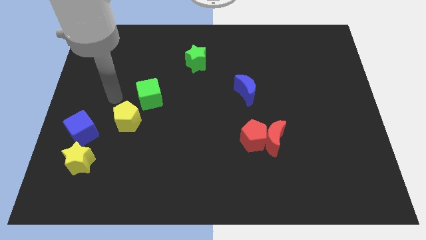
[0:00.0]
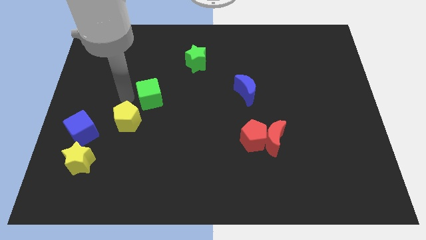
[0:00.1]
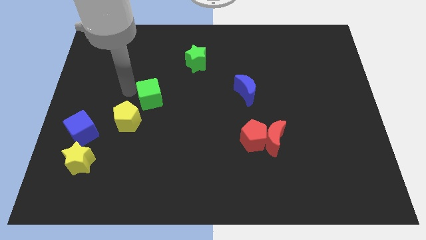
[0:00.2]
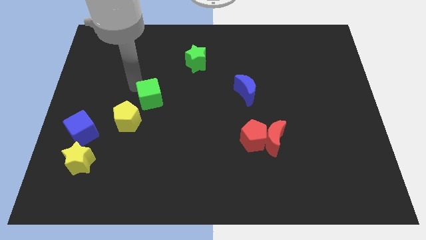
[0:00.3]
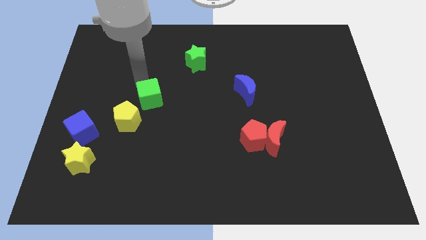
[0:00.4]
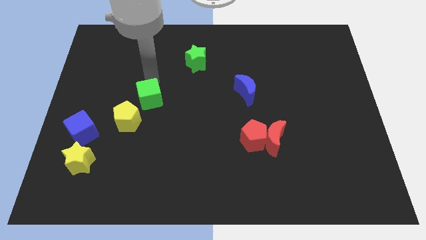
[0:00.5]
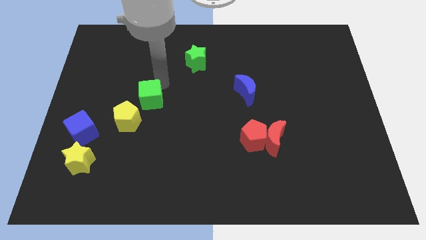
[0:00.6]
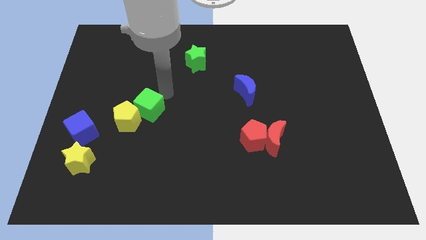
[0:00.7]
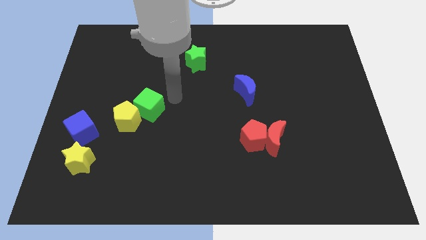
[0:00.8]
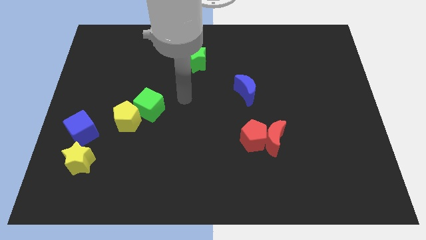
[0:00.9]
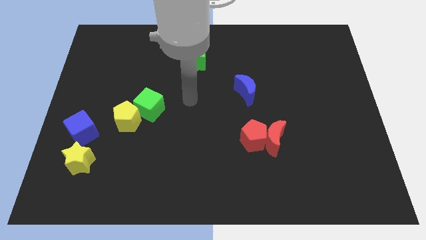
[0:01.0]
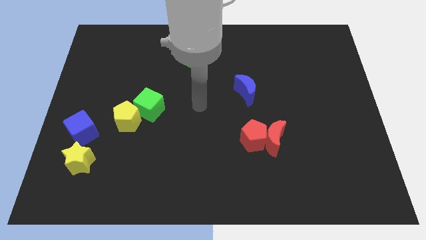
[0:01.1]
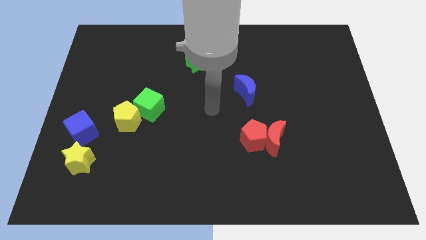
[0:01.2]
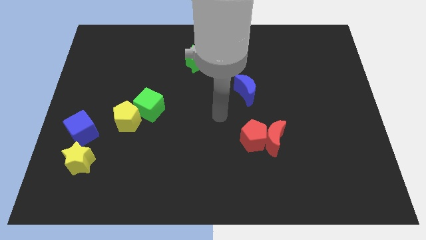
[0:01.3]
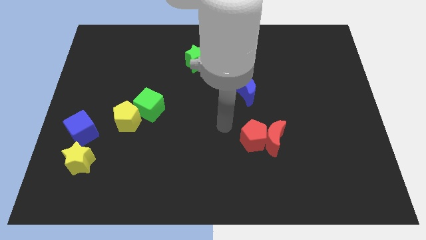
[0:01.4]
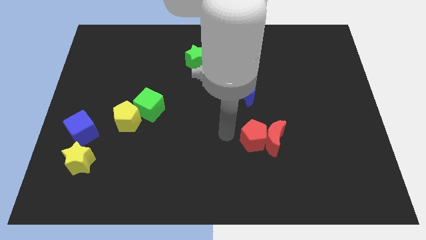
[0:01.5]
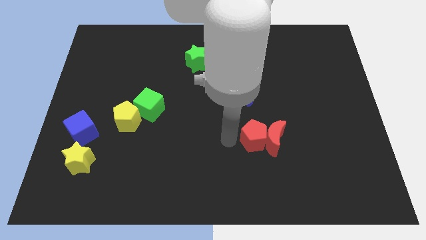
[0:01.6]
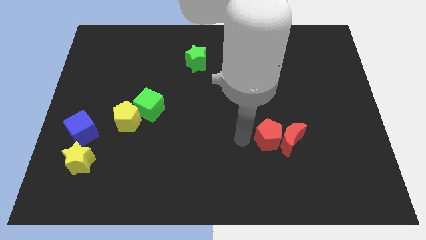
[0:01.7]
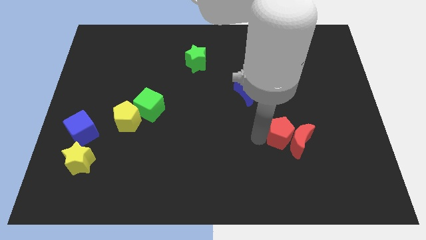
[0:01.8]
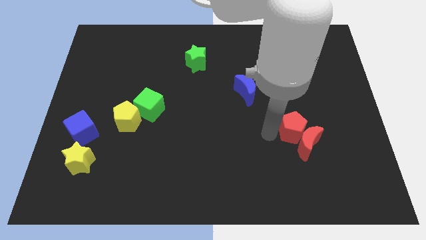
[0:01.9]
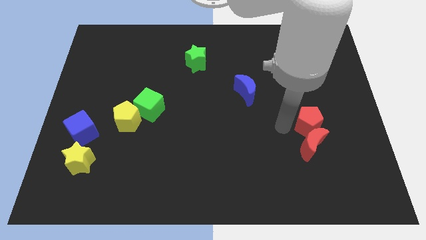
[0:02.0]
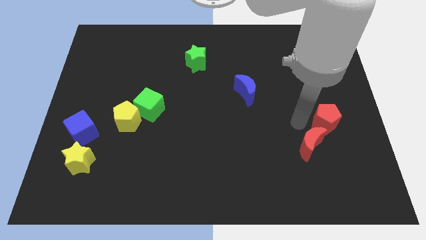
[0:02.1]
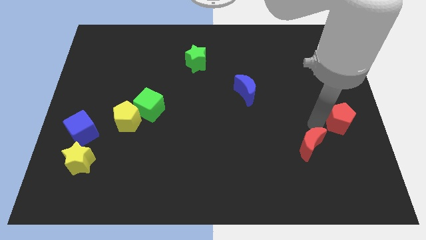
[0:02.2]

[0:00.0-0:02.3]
pull the red moon apart from the red pentagon

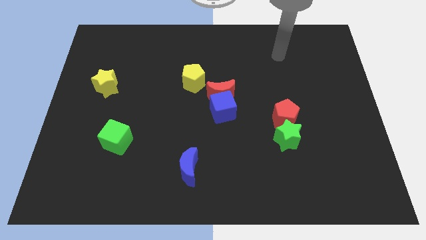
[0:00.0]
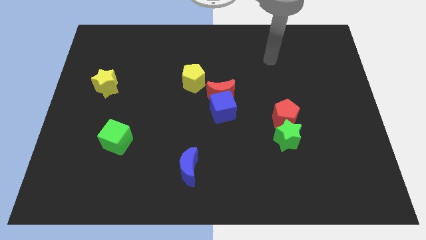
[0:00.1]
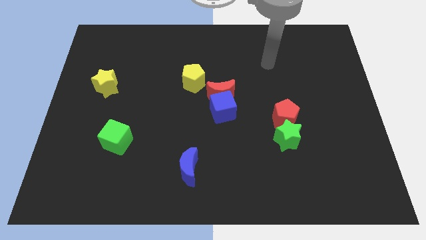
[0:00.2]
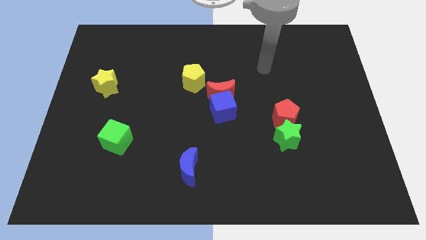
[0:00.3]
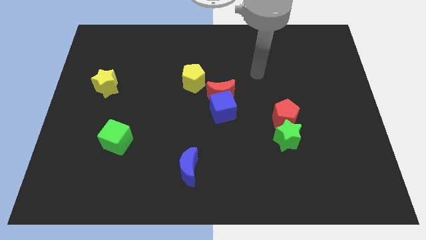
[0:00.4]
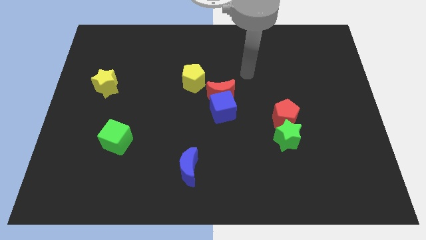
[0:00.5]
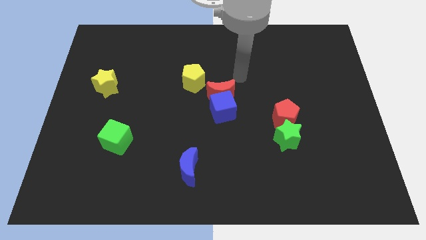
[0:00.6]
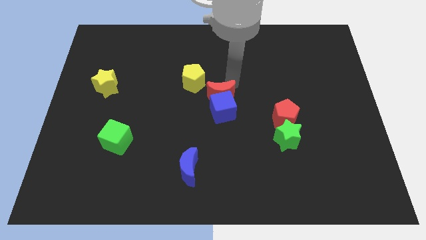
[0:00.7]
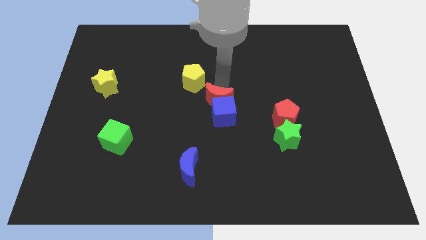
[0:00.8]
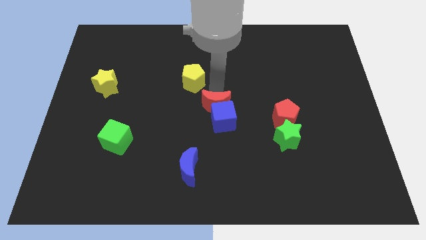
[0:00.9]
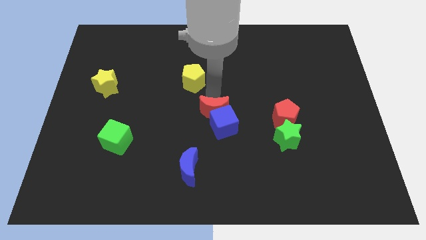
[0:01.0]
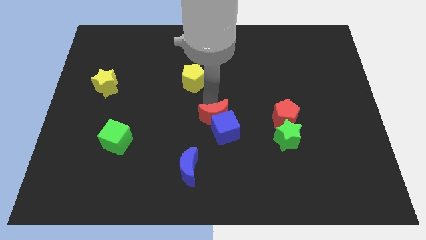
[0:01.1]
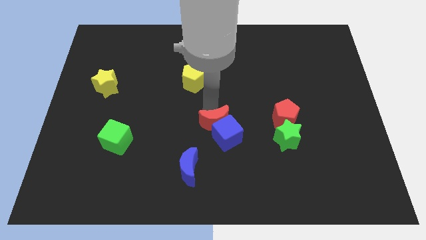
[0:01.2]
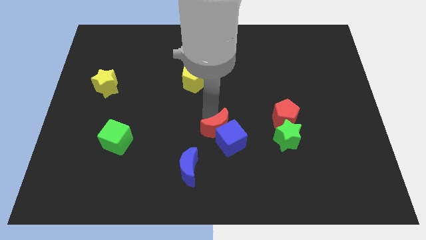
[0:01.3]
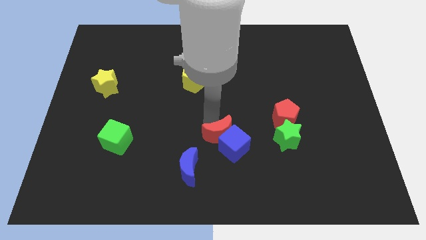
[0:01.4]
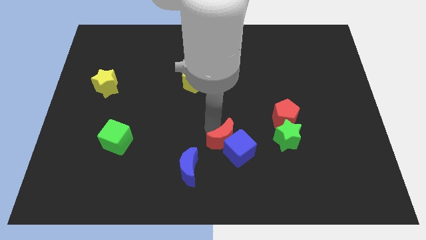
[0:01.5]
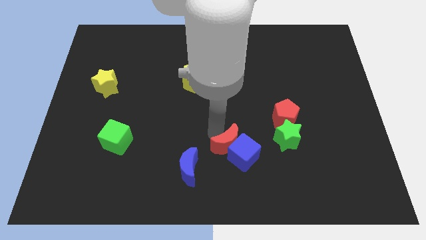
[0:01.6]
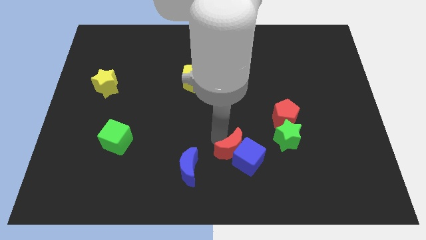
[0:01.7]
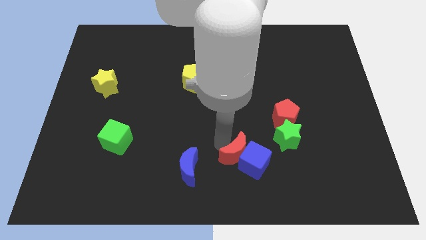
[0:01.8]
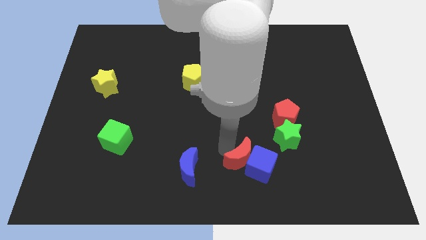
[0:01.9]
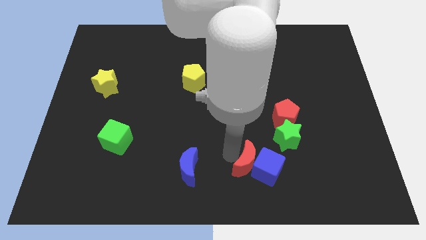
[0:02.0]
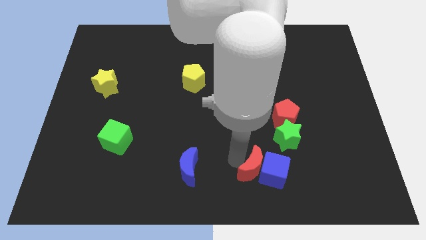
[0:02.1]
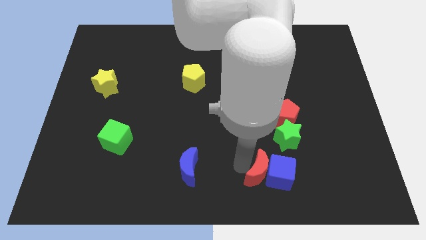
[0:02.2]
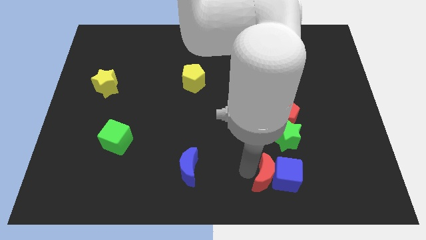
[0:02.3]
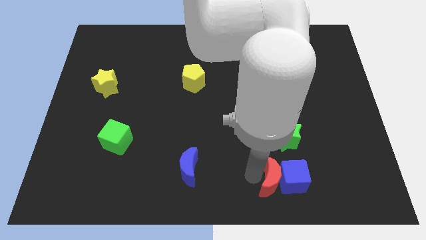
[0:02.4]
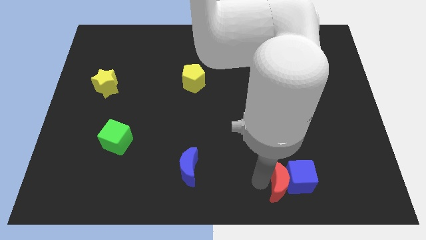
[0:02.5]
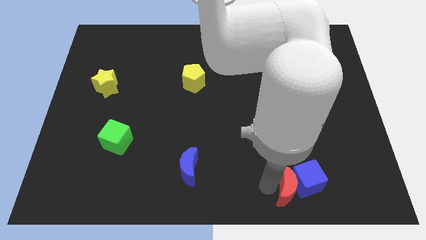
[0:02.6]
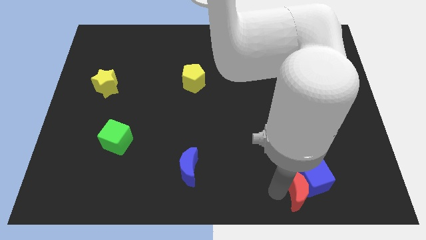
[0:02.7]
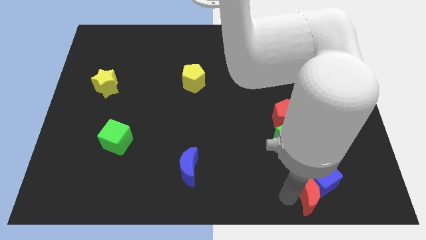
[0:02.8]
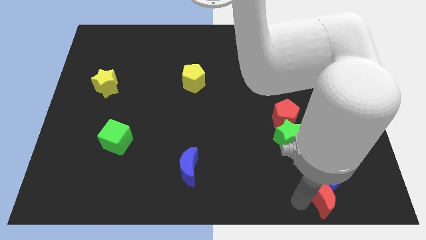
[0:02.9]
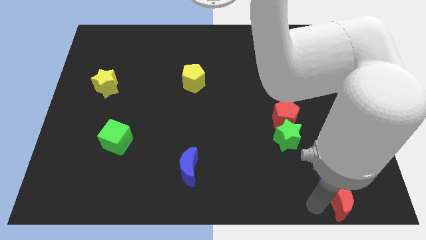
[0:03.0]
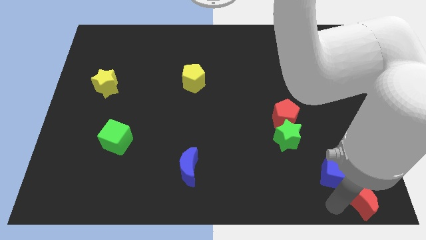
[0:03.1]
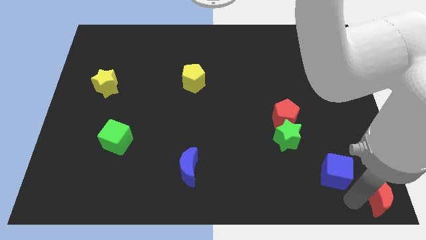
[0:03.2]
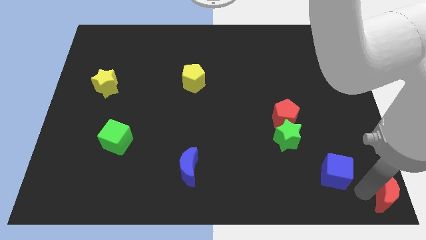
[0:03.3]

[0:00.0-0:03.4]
pull the blue cube apart from the red moon

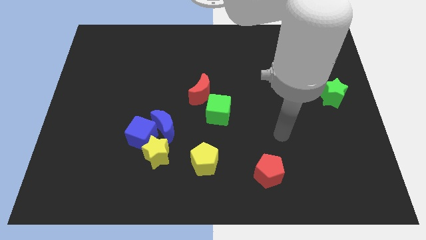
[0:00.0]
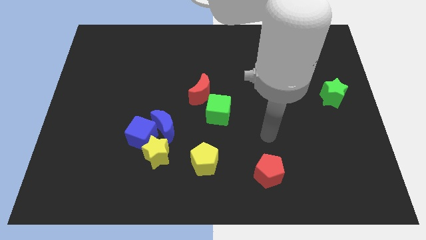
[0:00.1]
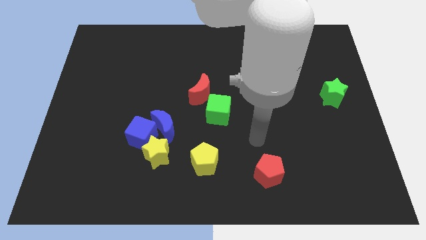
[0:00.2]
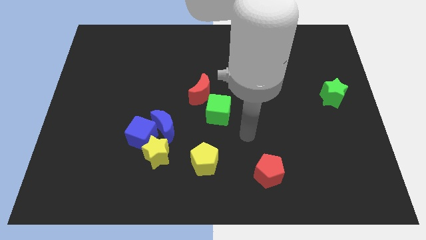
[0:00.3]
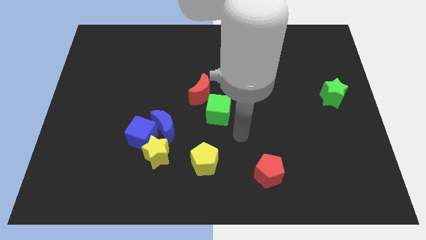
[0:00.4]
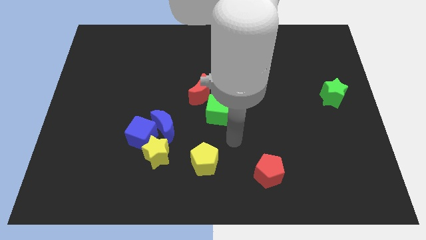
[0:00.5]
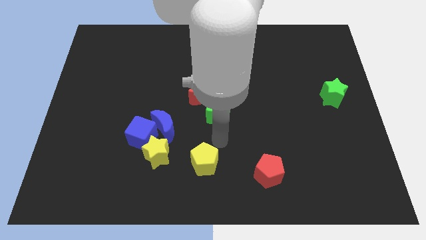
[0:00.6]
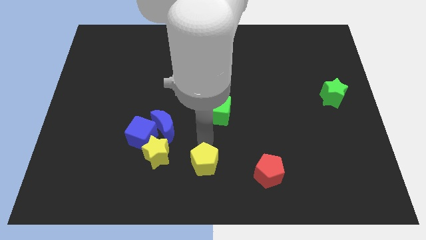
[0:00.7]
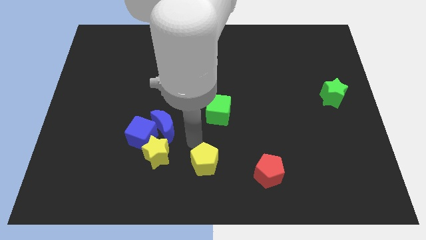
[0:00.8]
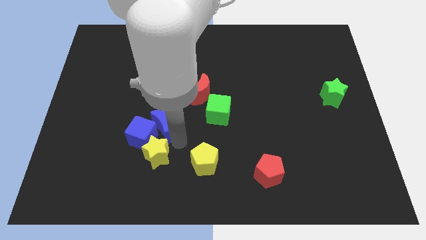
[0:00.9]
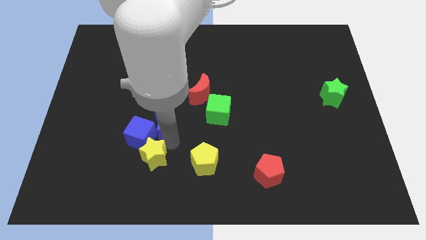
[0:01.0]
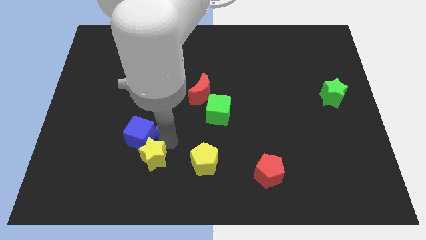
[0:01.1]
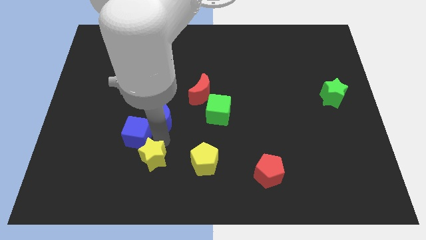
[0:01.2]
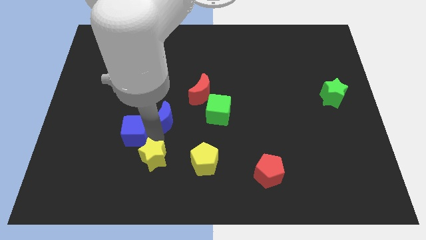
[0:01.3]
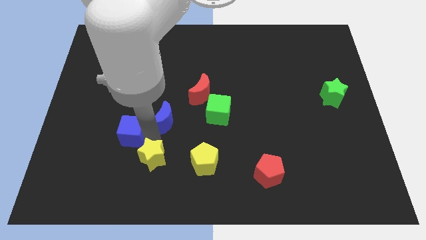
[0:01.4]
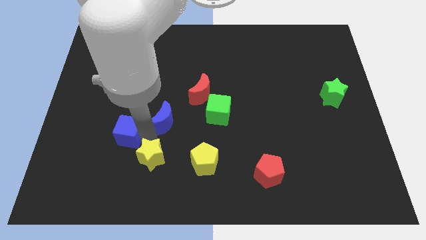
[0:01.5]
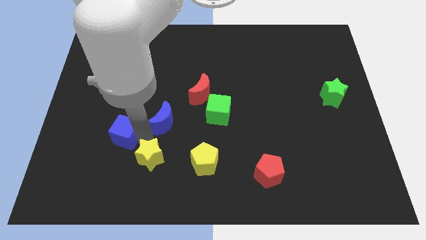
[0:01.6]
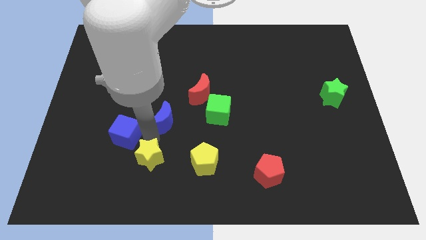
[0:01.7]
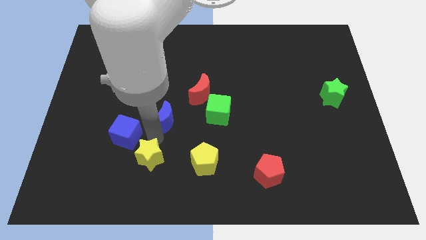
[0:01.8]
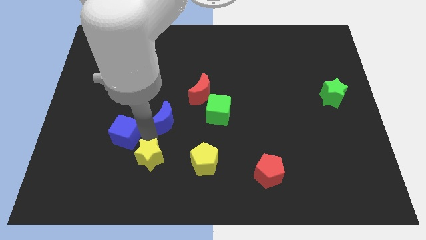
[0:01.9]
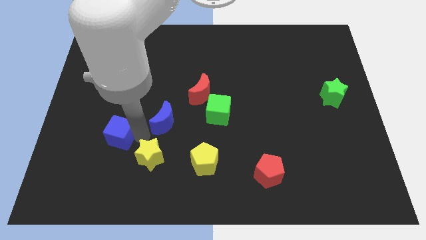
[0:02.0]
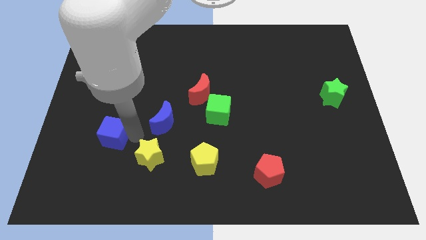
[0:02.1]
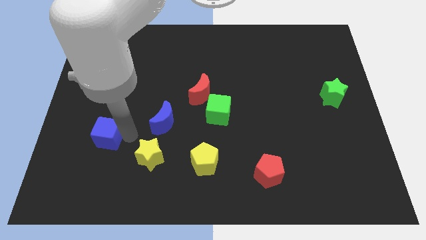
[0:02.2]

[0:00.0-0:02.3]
move the blue cube away from the blue moon and yellow star

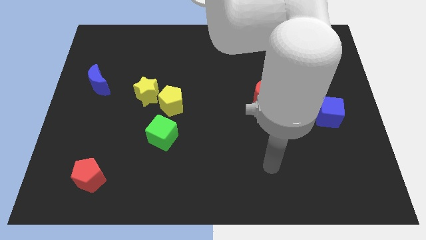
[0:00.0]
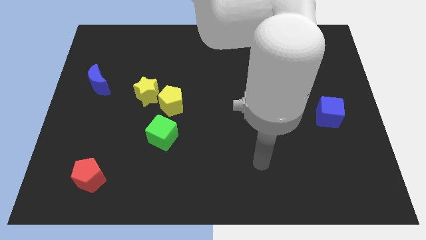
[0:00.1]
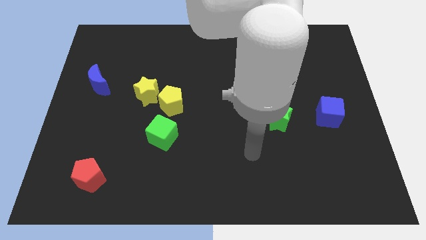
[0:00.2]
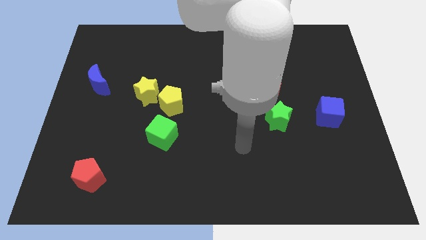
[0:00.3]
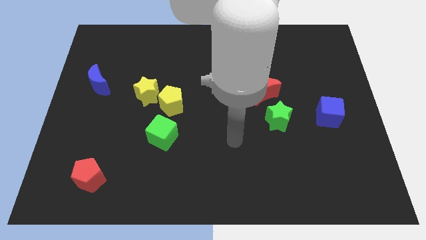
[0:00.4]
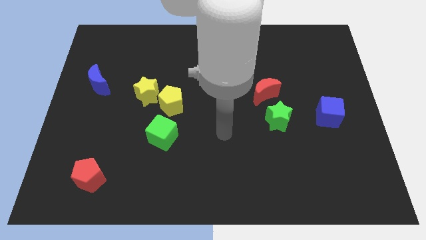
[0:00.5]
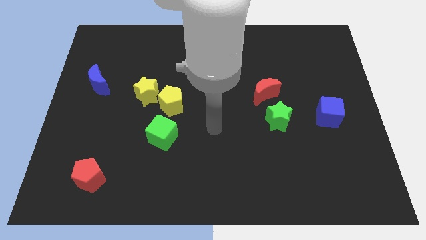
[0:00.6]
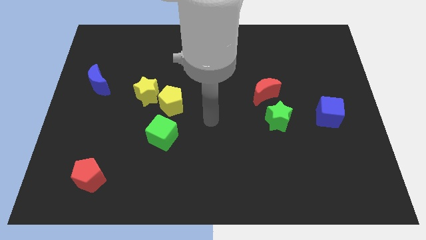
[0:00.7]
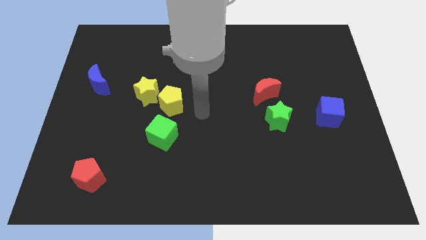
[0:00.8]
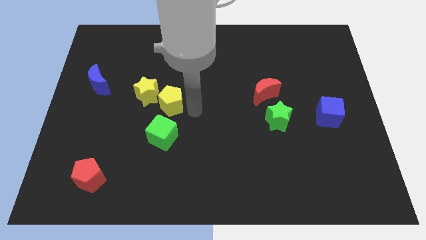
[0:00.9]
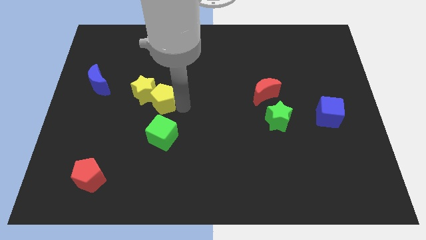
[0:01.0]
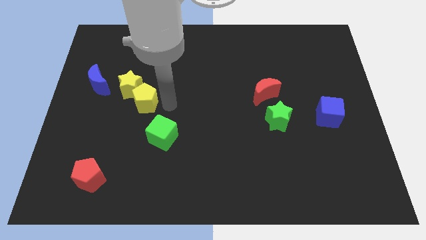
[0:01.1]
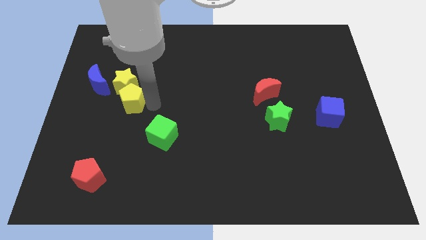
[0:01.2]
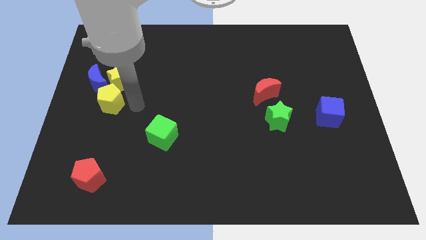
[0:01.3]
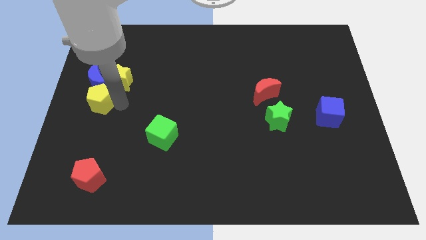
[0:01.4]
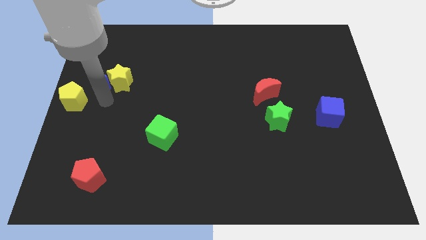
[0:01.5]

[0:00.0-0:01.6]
move the yellow star away from the yellow pentagon
